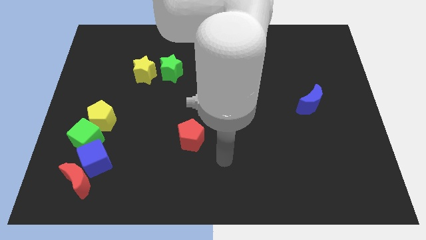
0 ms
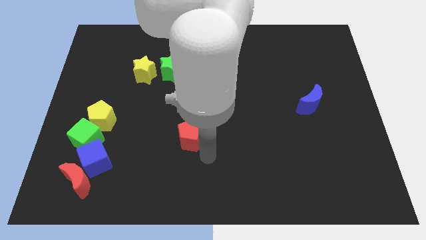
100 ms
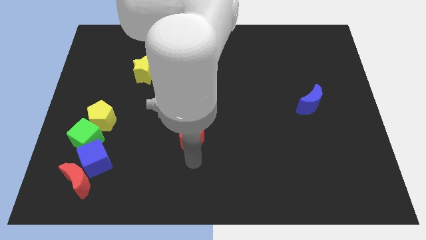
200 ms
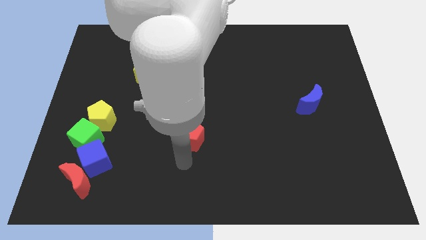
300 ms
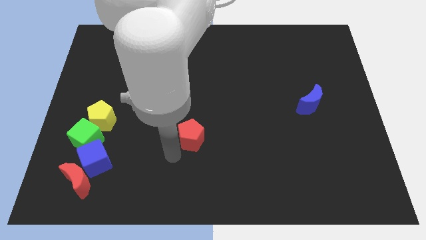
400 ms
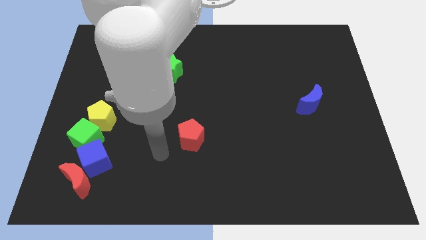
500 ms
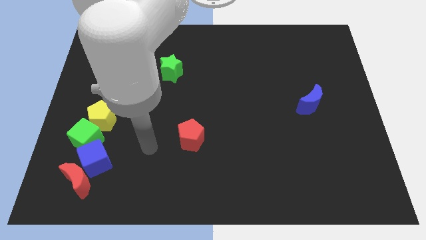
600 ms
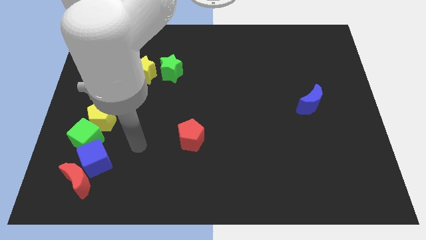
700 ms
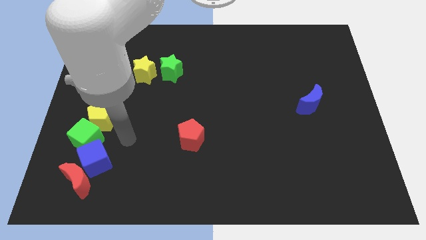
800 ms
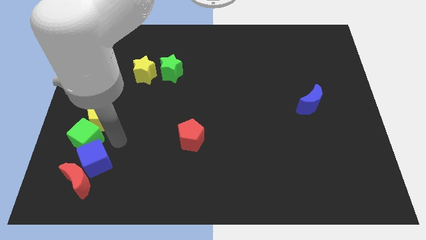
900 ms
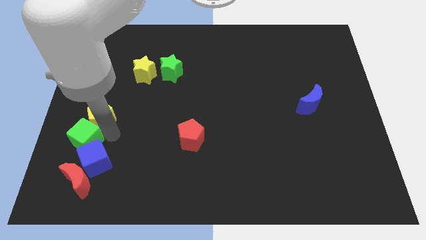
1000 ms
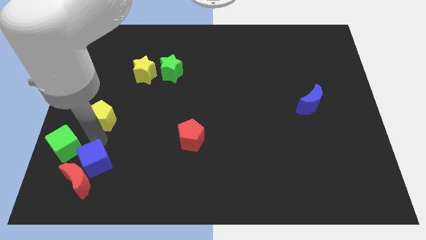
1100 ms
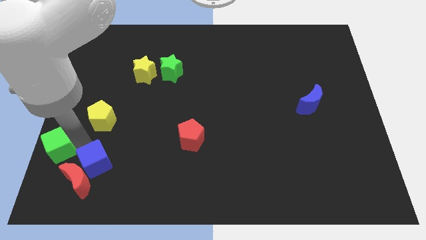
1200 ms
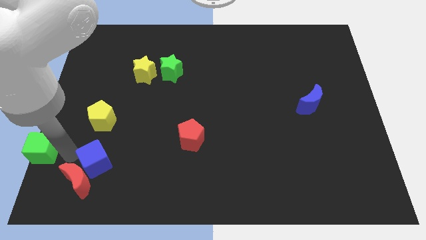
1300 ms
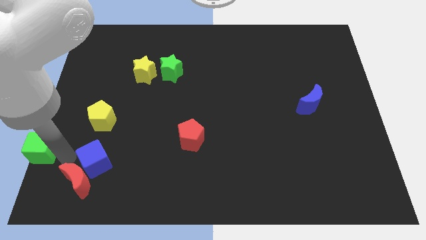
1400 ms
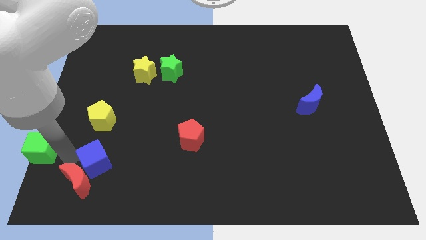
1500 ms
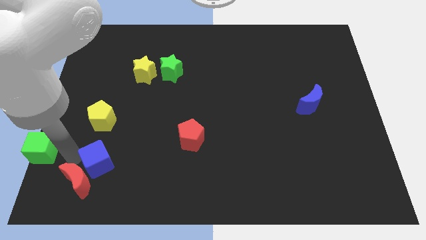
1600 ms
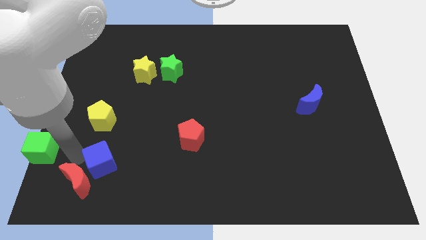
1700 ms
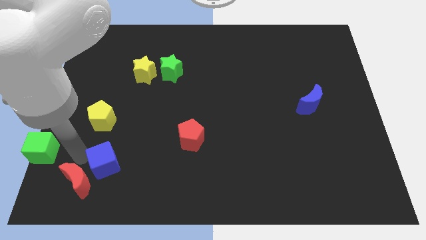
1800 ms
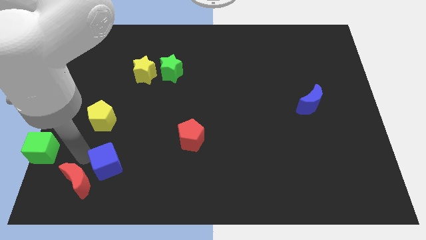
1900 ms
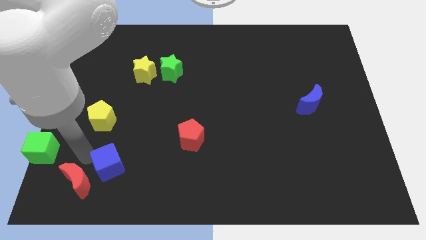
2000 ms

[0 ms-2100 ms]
pull the blue cube apart from the red moon and green cube

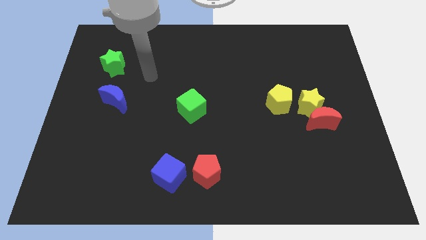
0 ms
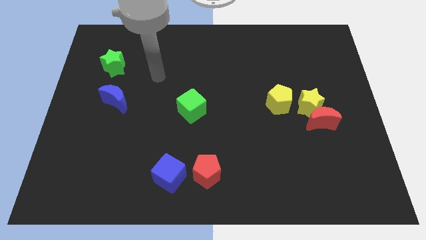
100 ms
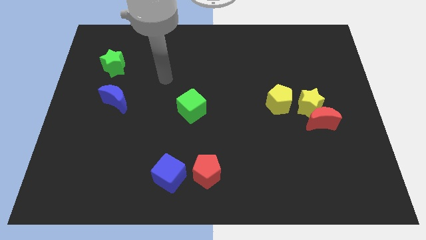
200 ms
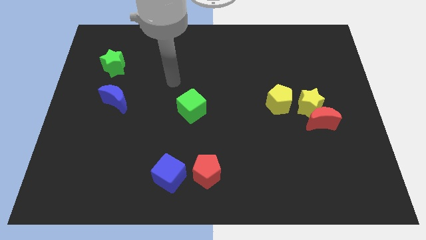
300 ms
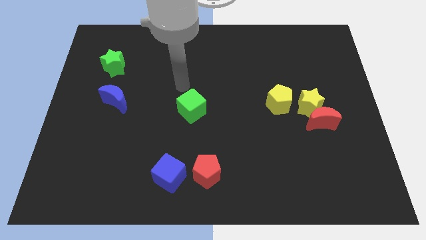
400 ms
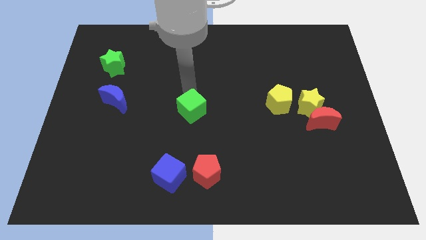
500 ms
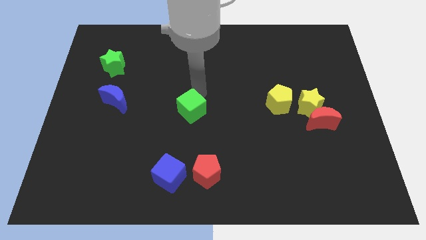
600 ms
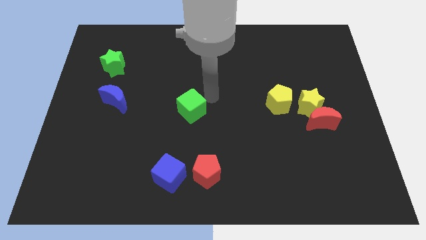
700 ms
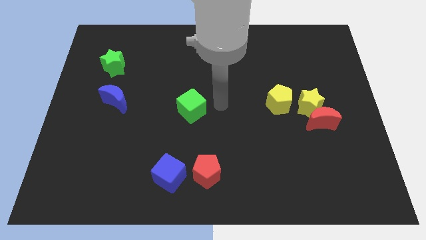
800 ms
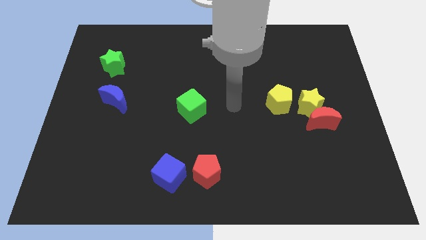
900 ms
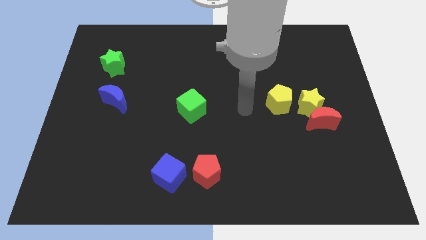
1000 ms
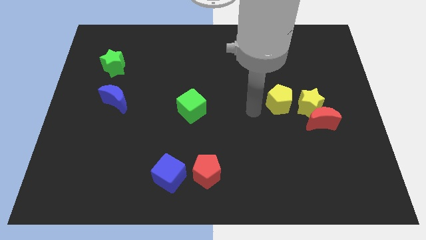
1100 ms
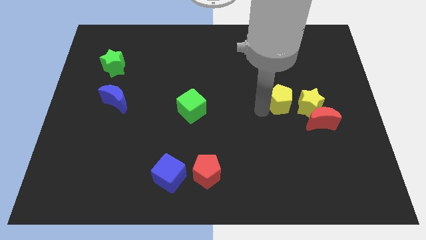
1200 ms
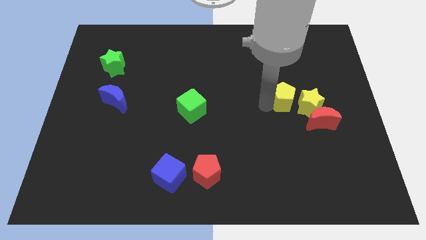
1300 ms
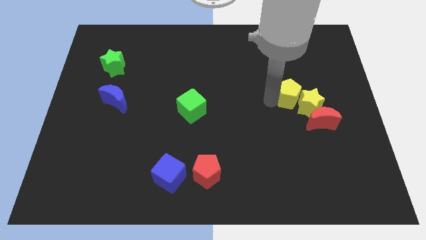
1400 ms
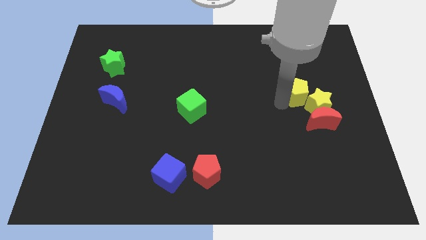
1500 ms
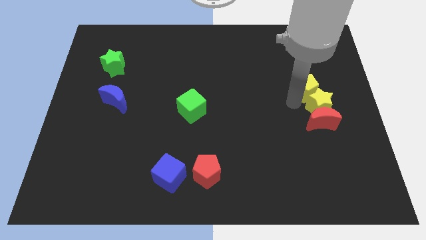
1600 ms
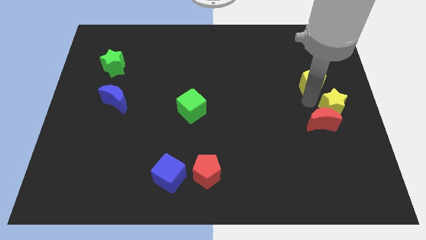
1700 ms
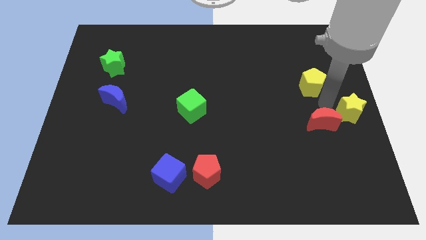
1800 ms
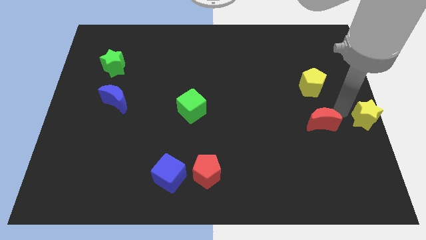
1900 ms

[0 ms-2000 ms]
move the red moon away from the yellow star

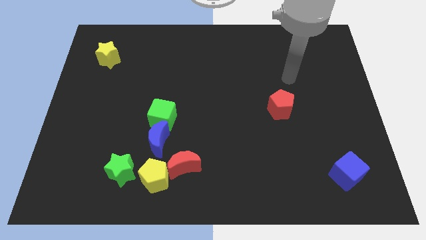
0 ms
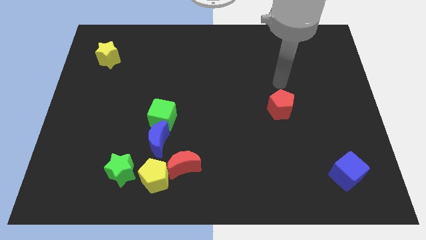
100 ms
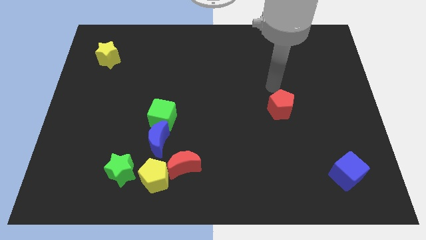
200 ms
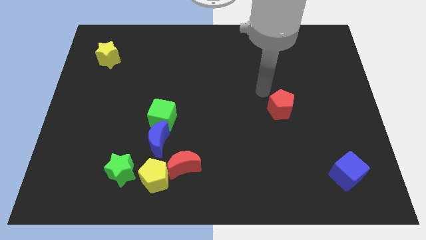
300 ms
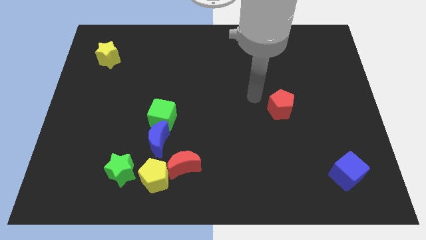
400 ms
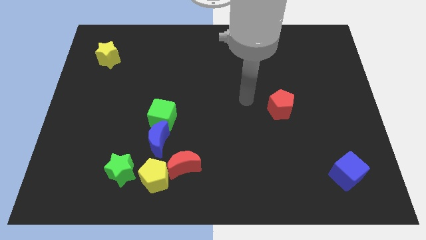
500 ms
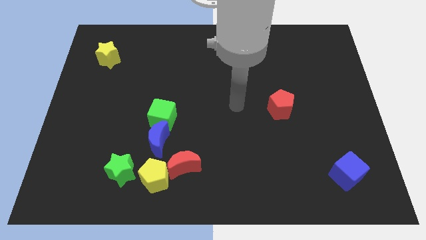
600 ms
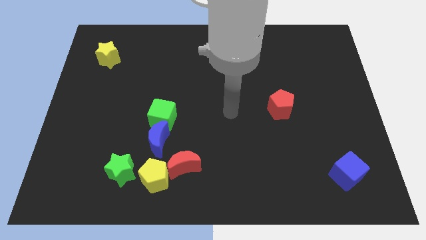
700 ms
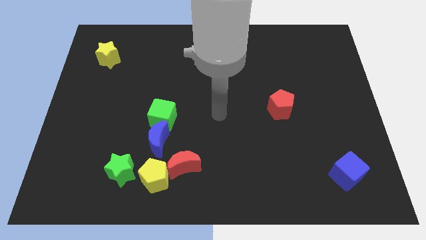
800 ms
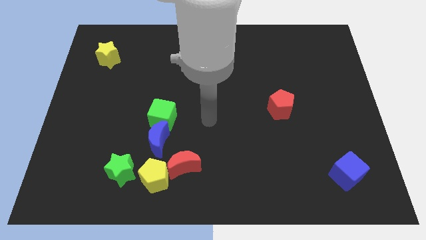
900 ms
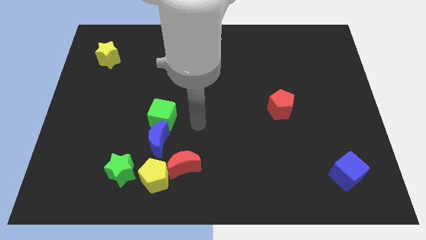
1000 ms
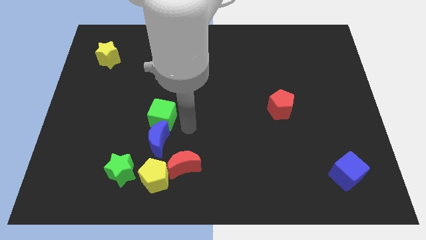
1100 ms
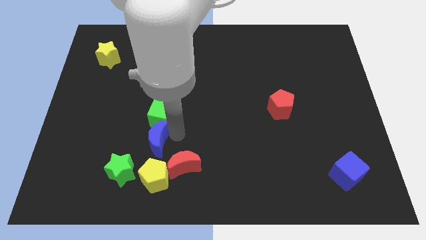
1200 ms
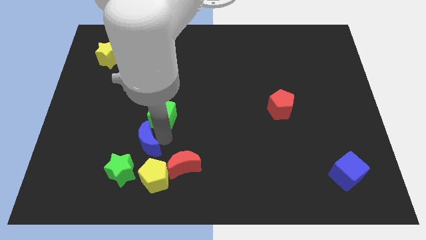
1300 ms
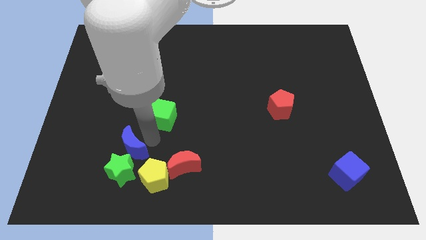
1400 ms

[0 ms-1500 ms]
separate the green cube from the blue moon

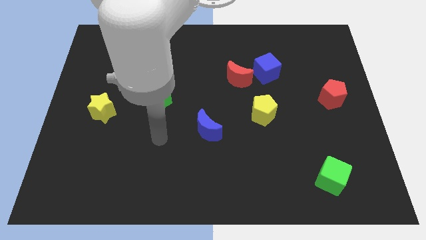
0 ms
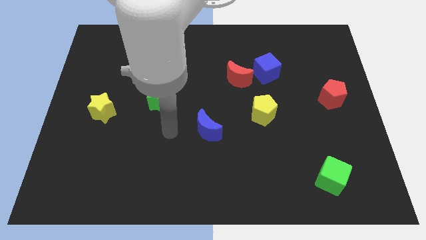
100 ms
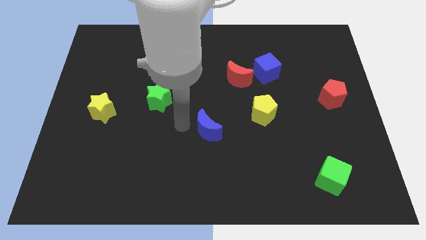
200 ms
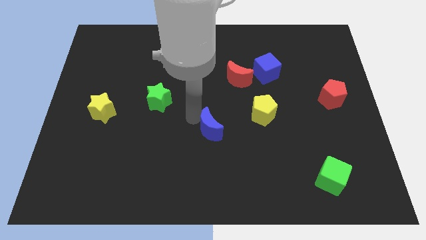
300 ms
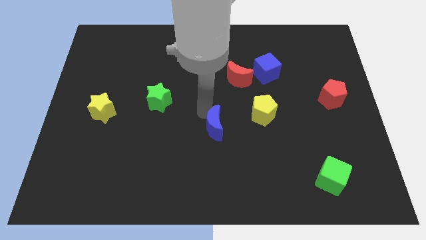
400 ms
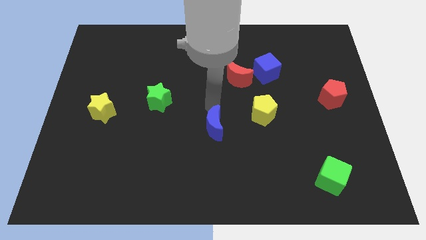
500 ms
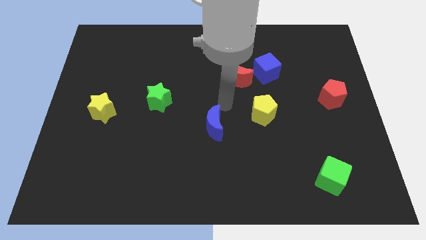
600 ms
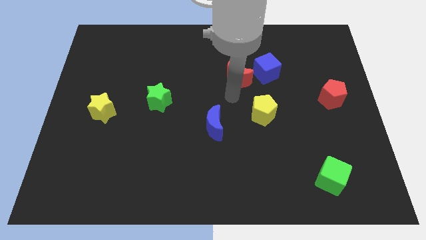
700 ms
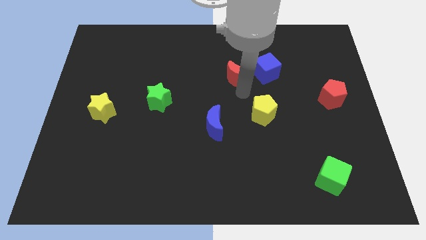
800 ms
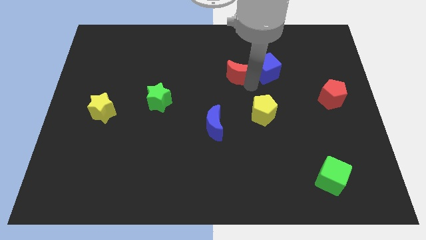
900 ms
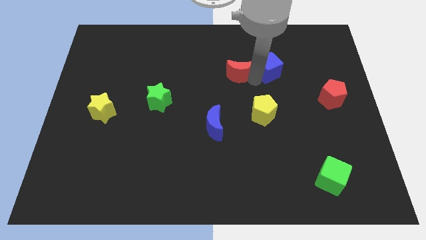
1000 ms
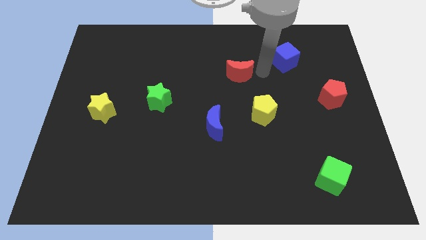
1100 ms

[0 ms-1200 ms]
move the red moon away from the blue cube

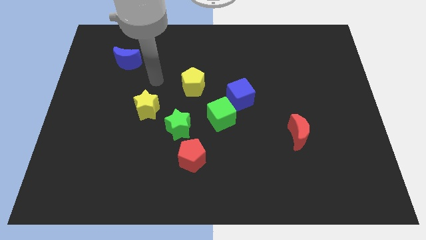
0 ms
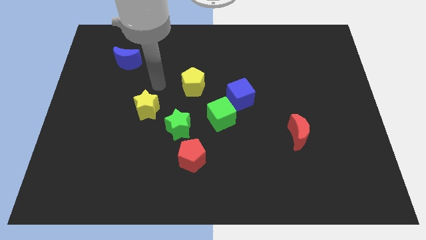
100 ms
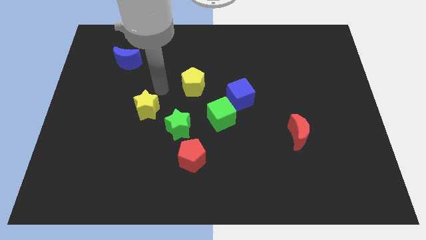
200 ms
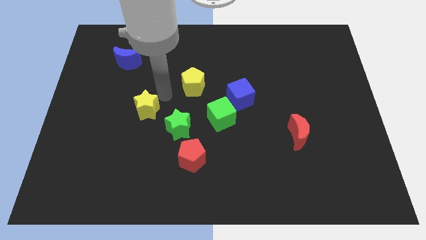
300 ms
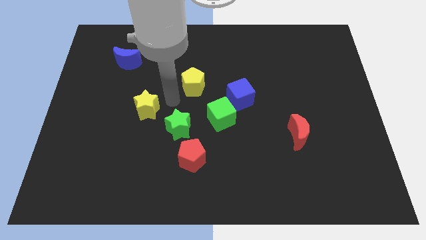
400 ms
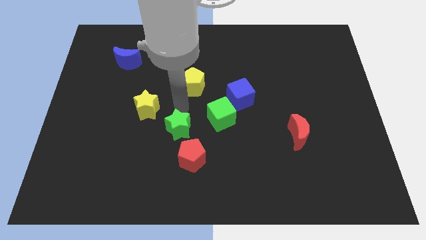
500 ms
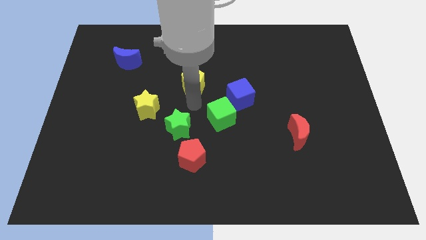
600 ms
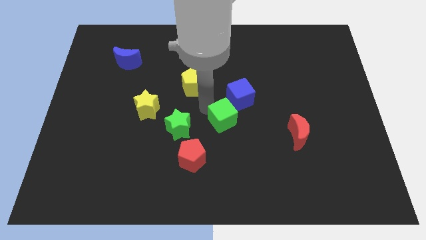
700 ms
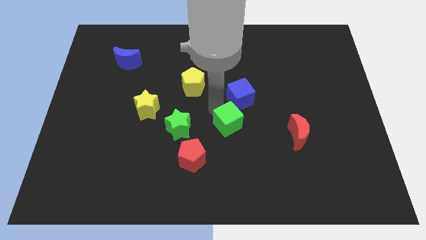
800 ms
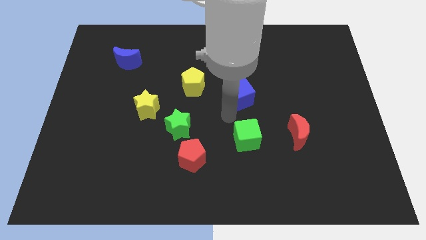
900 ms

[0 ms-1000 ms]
separate the blue cube from the green cube

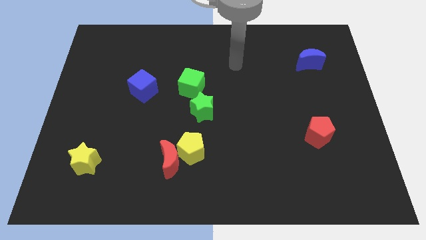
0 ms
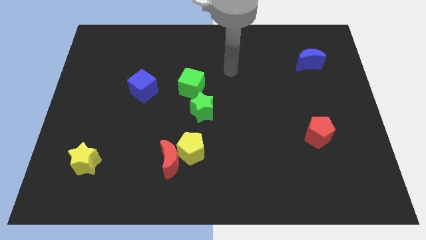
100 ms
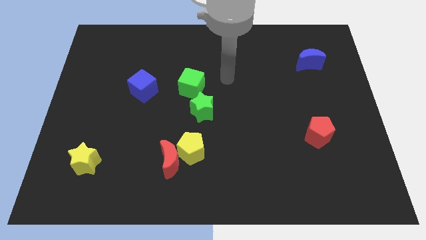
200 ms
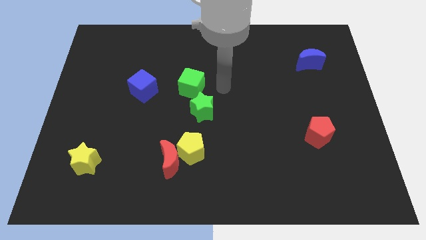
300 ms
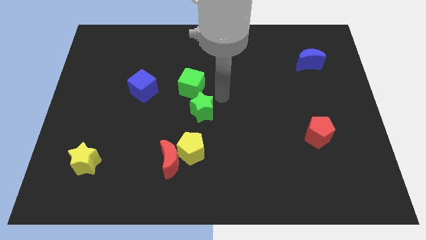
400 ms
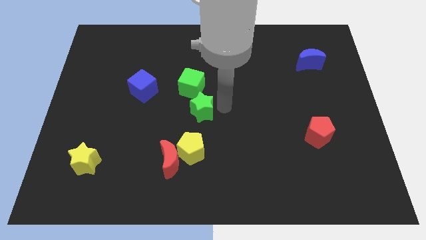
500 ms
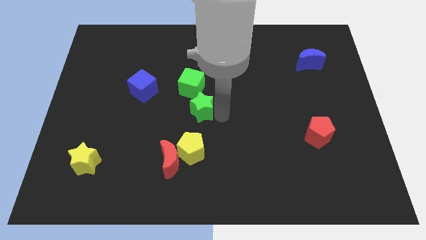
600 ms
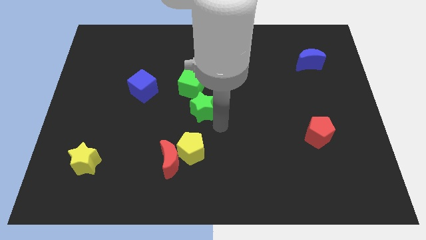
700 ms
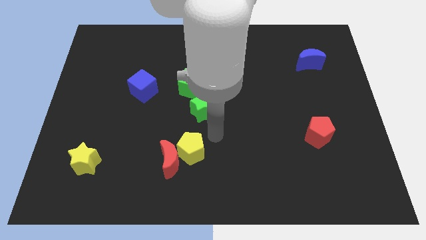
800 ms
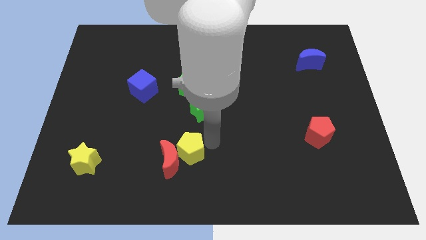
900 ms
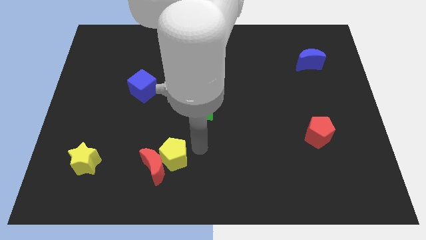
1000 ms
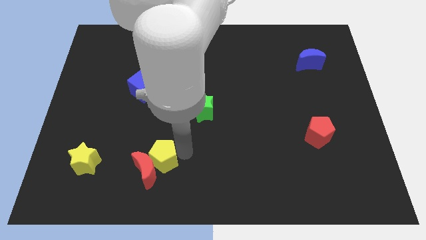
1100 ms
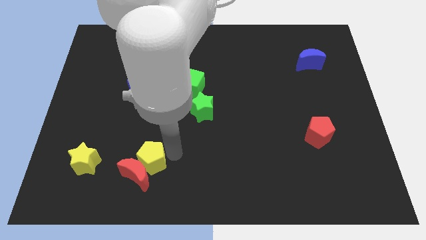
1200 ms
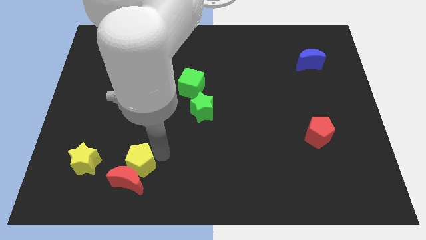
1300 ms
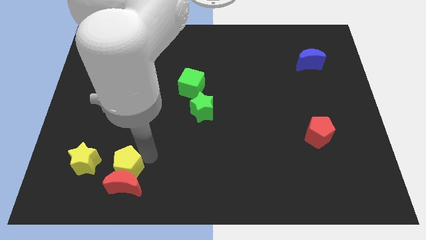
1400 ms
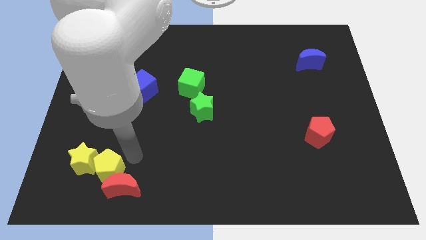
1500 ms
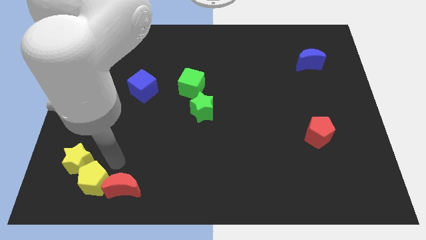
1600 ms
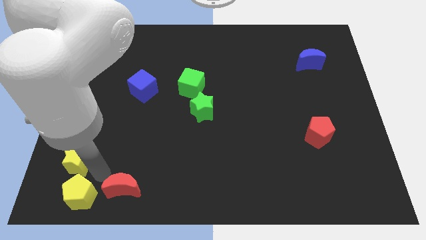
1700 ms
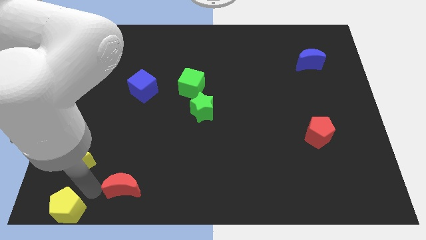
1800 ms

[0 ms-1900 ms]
pull the red moon apart from the yellow pentagon
